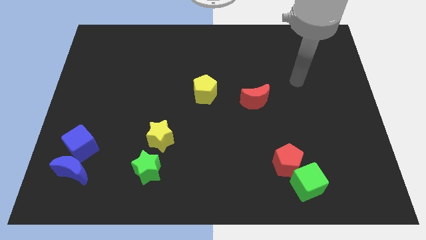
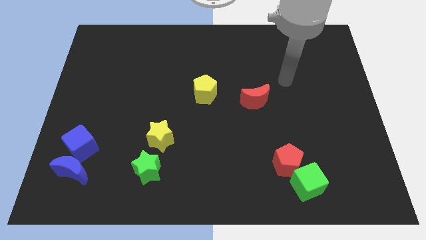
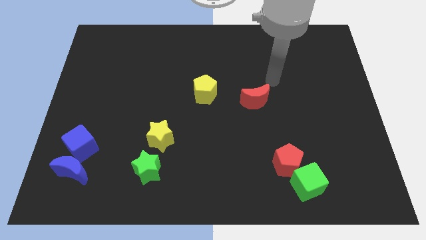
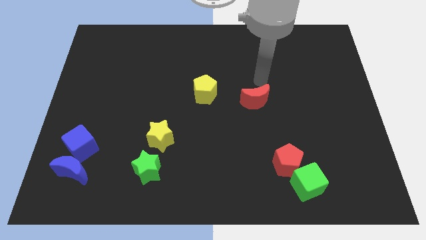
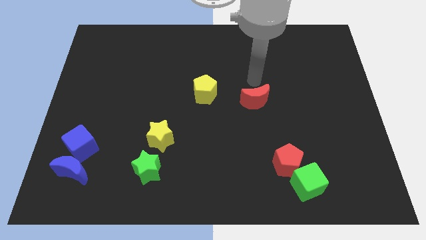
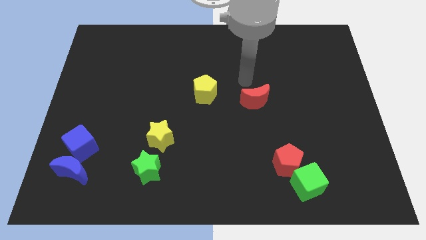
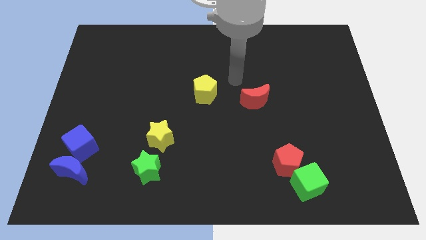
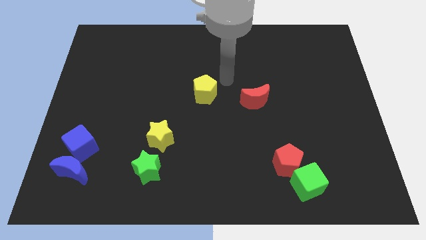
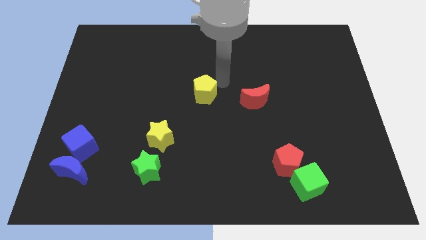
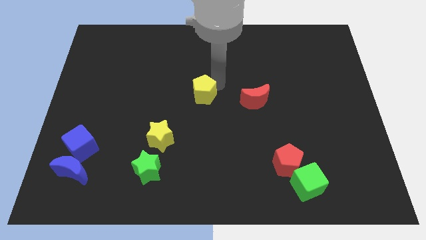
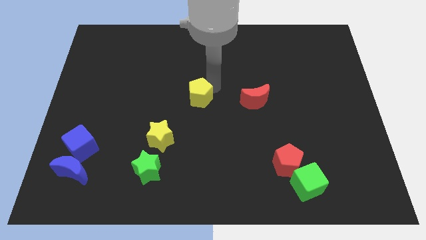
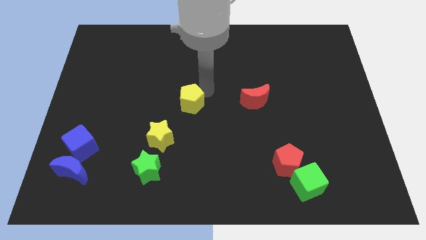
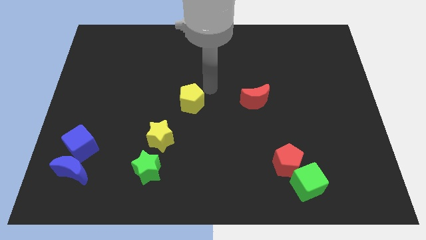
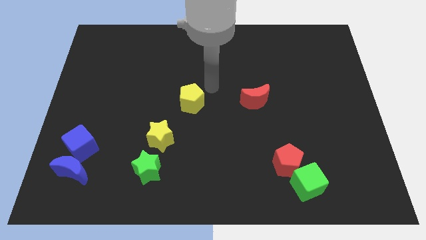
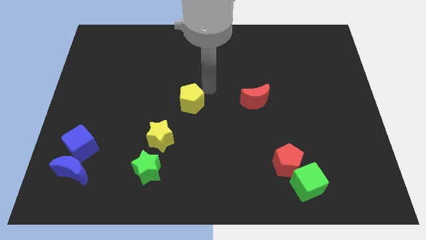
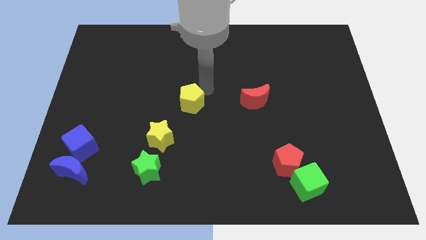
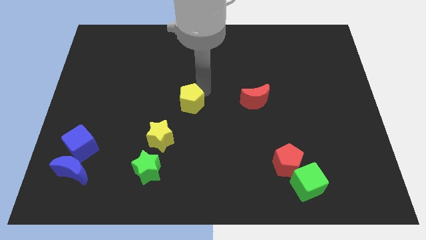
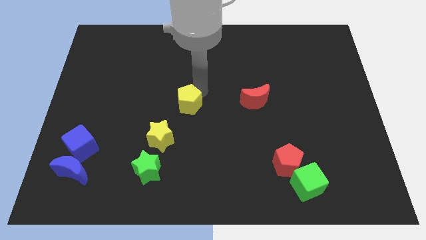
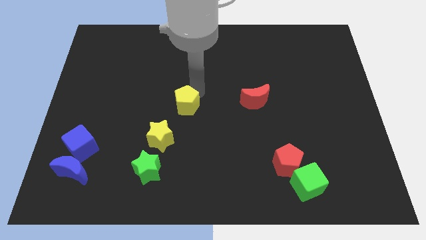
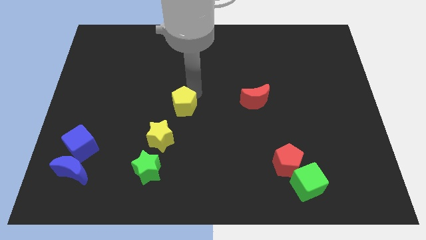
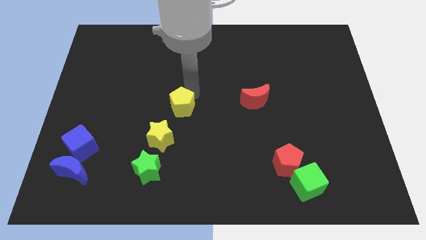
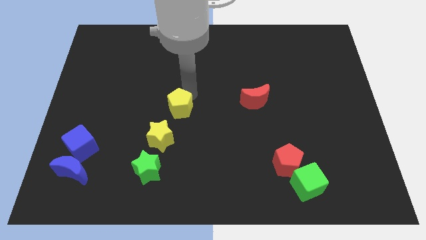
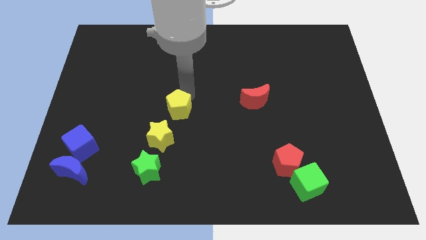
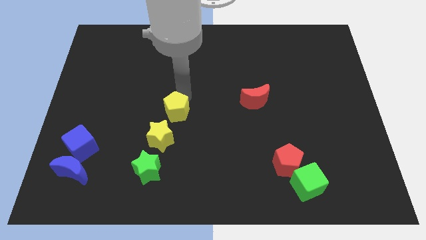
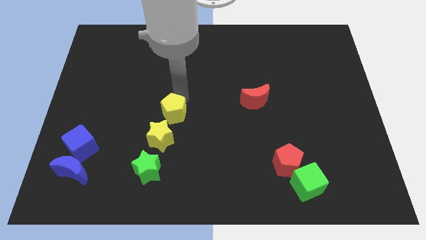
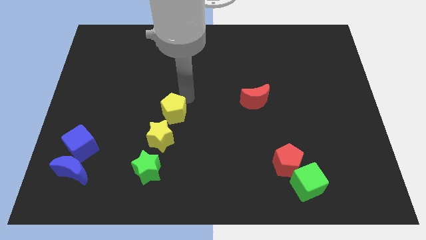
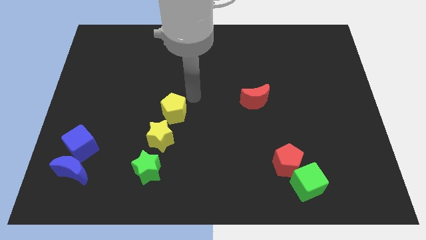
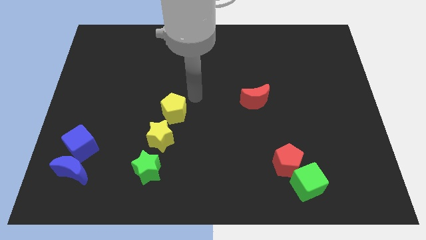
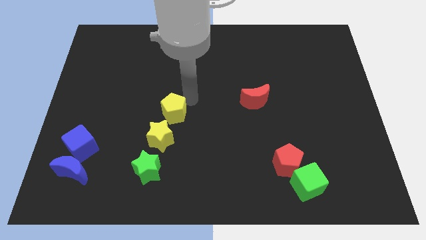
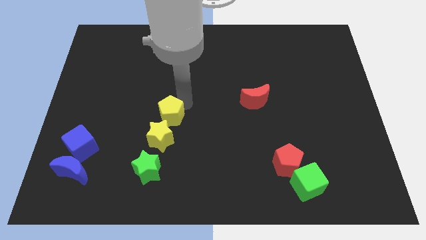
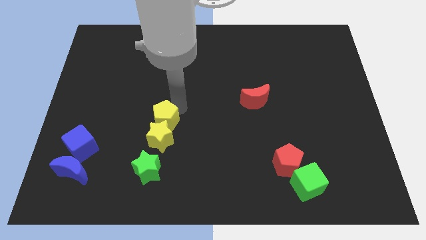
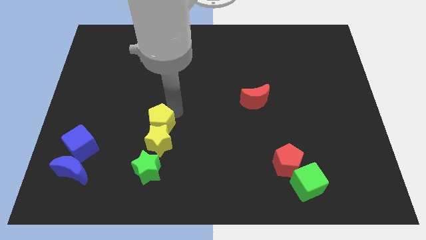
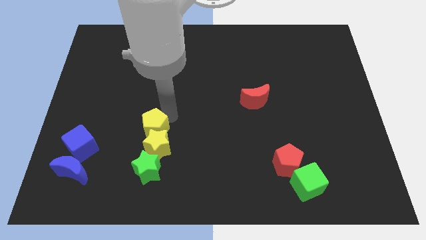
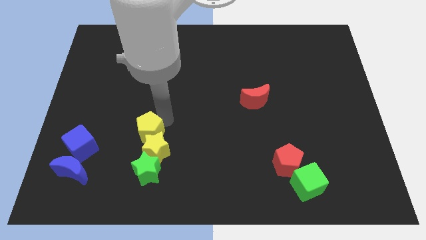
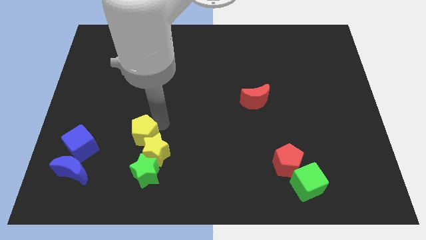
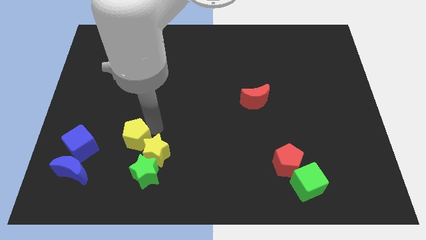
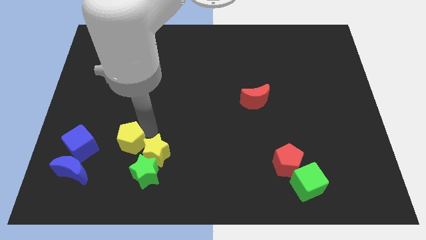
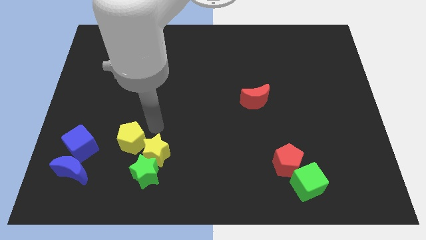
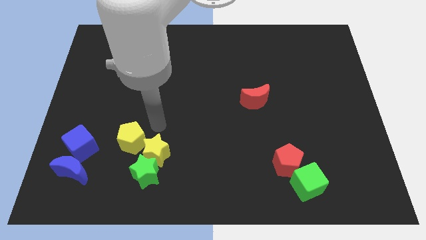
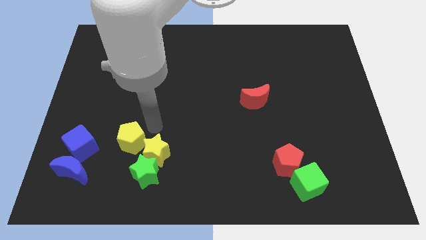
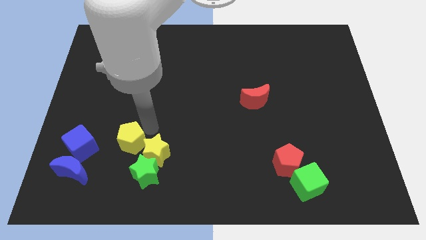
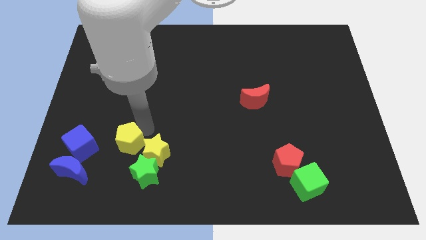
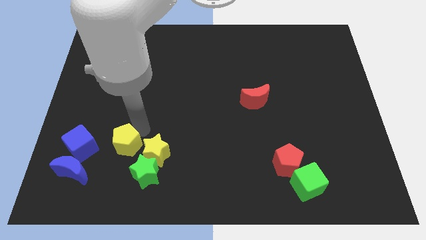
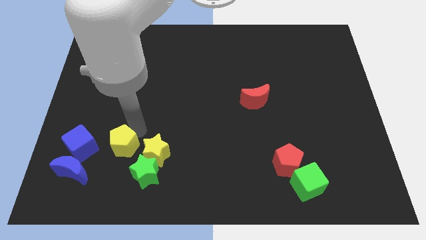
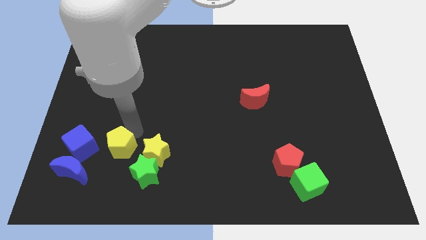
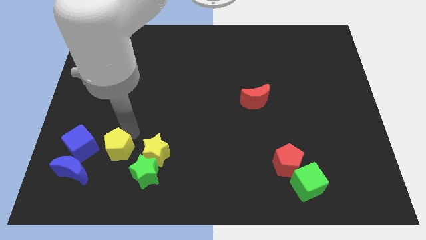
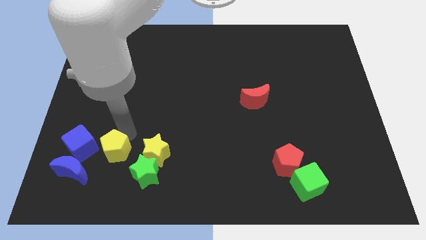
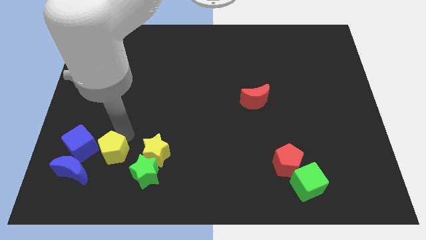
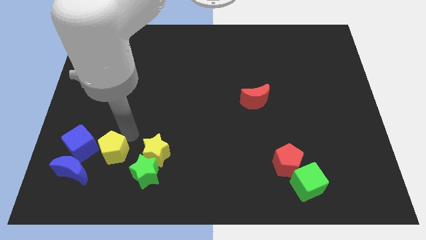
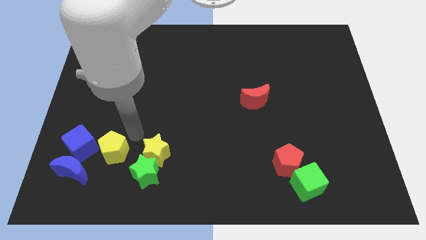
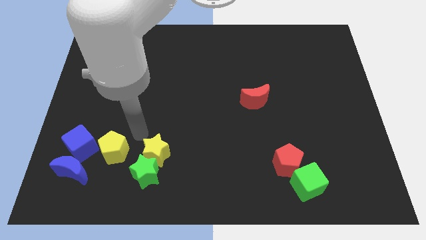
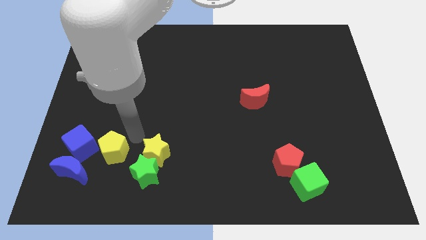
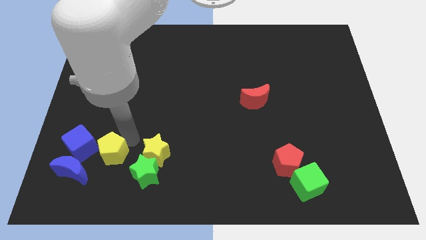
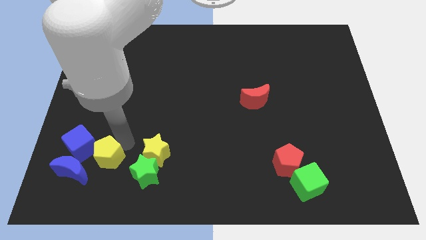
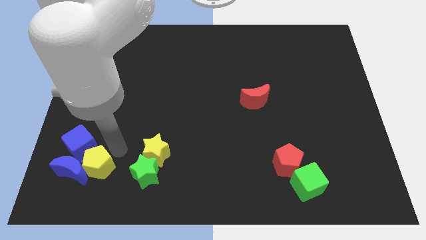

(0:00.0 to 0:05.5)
put the yellow pentagon towards the blue moon

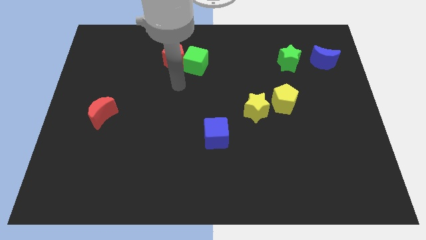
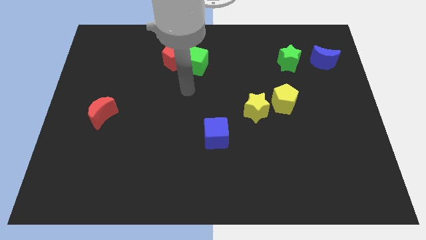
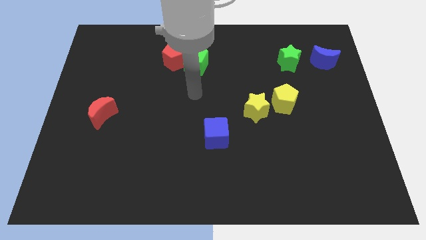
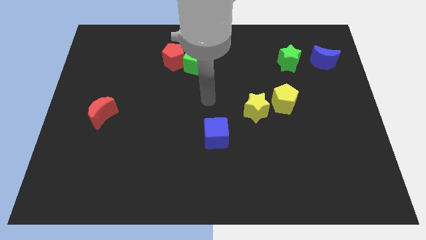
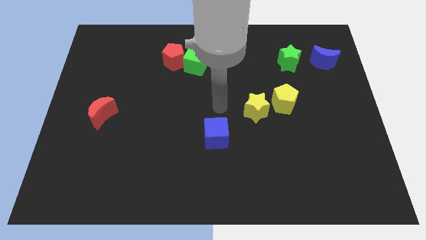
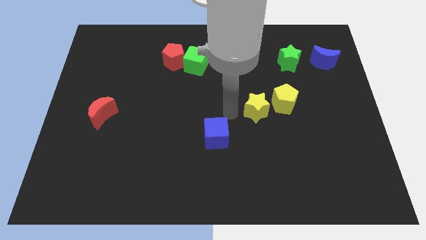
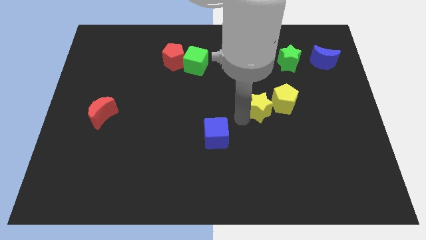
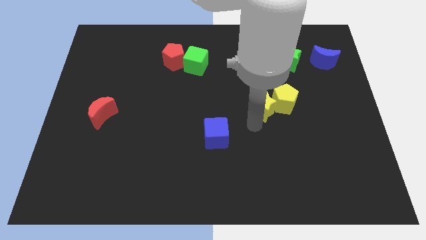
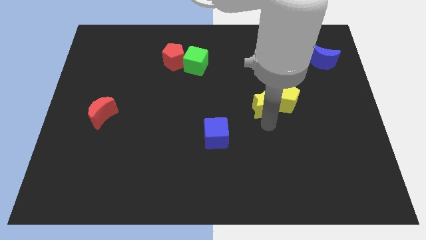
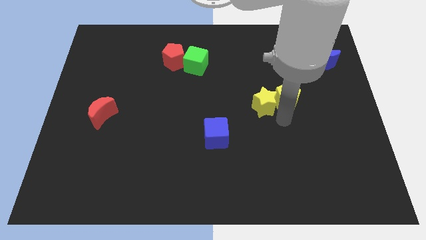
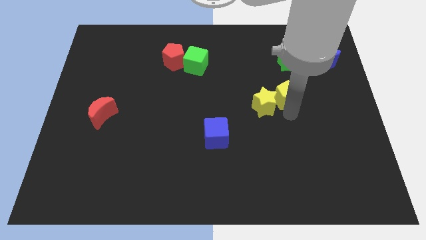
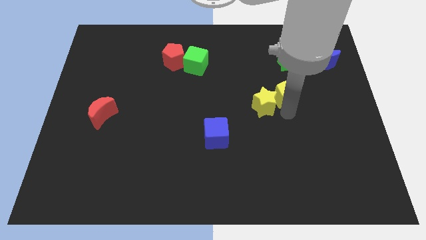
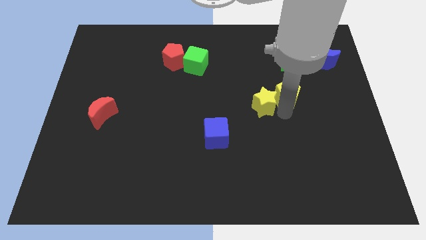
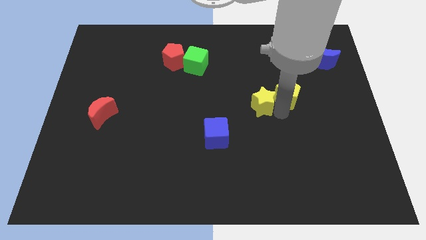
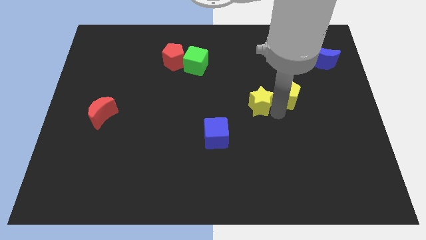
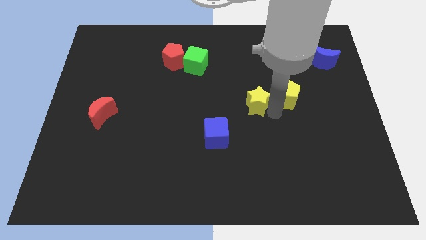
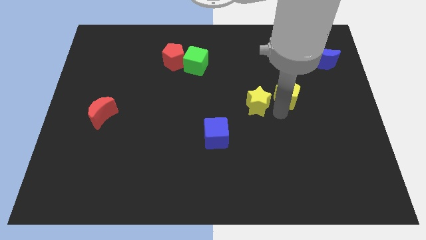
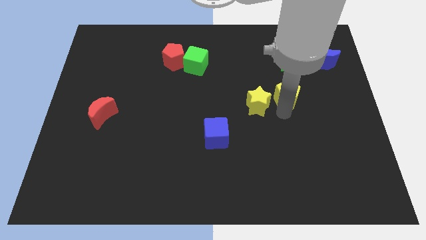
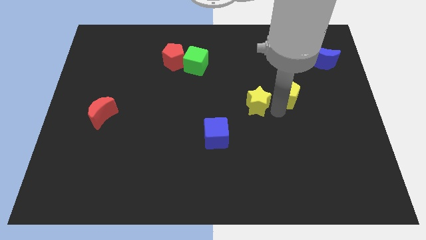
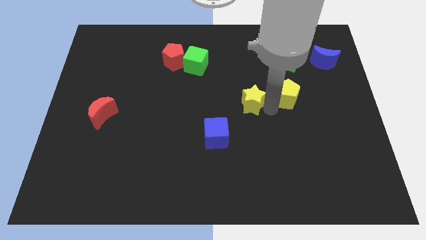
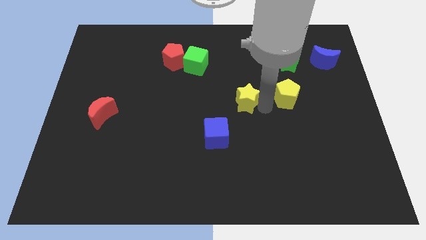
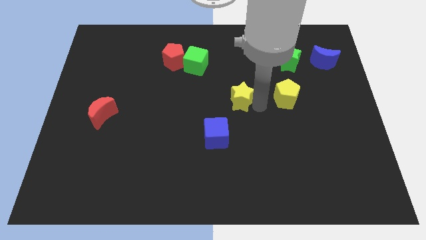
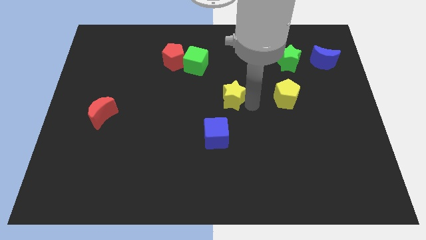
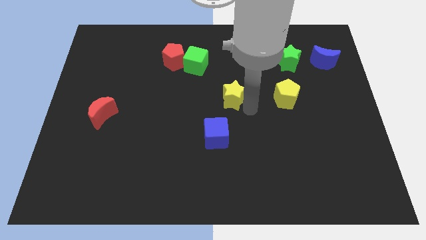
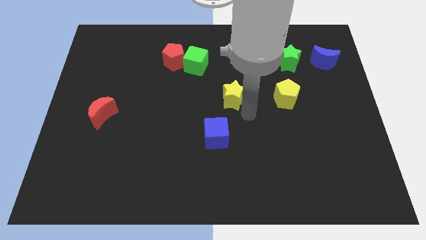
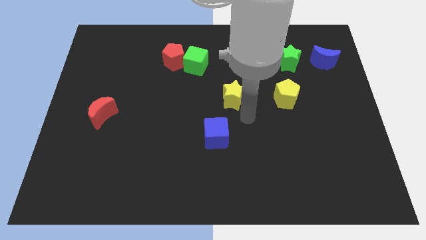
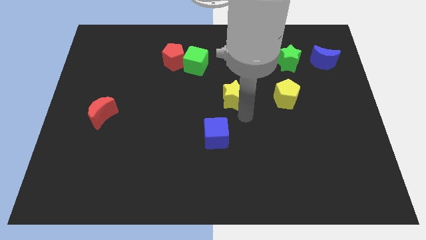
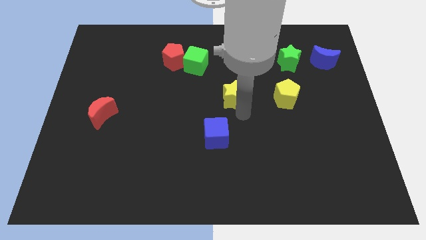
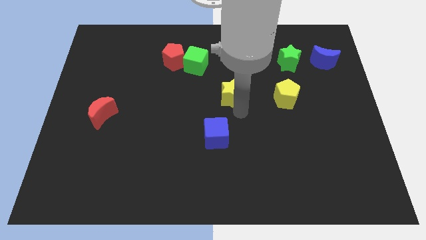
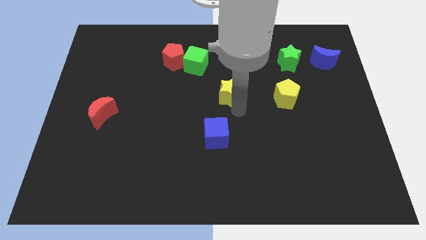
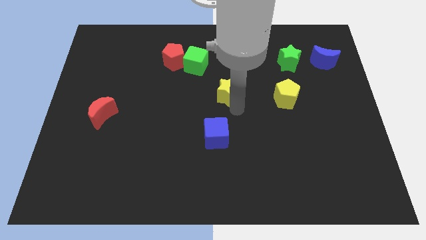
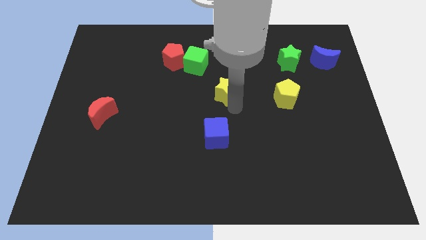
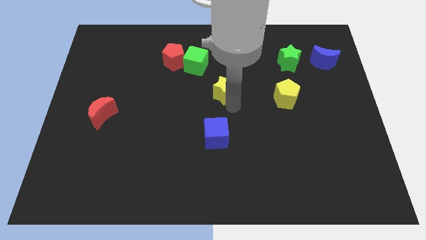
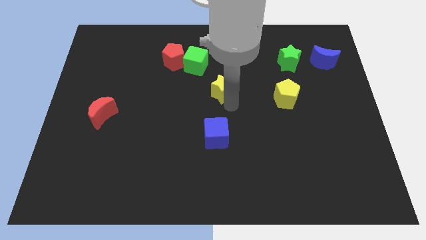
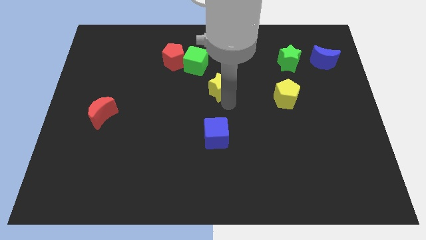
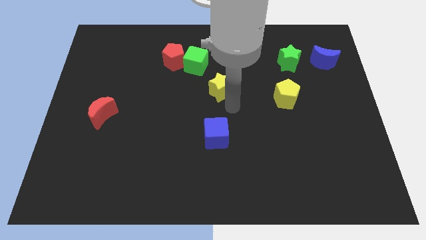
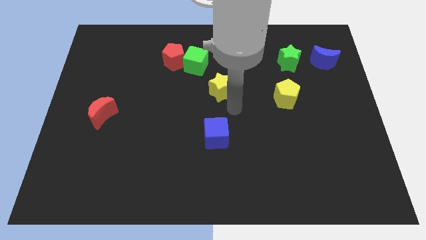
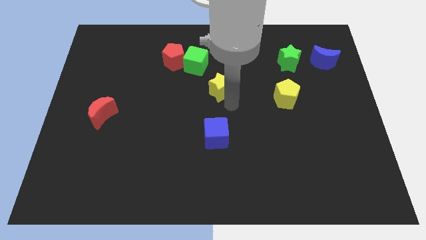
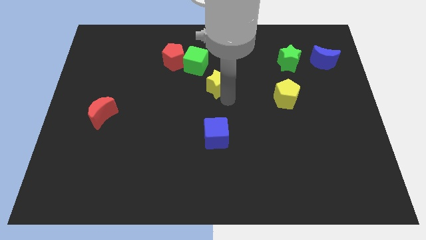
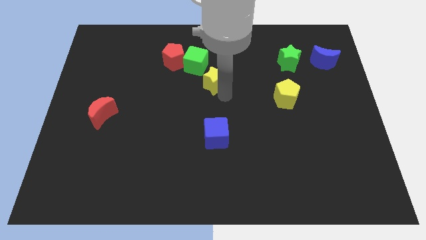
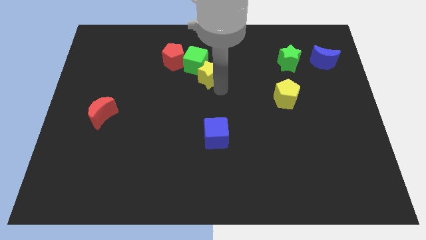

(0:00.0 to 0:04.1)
put the yellow star towards the green cube
